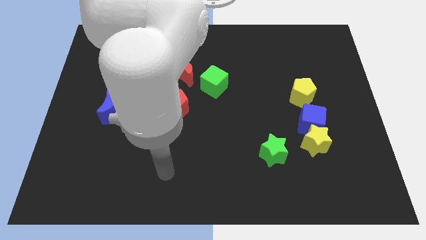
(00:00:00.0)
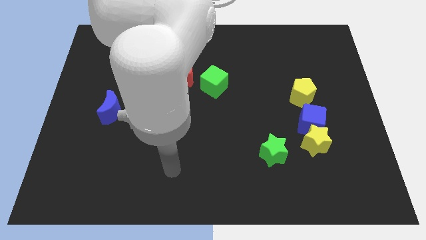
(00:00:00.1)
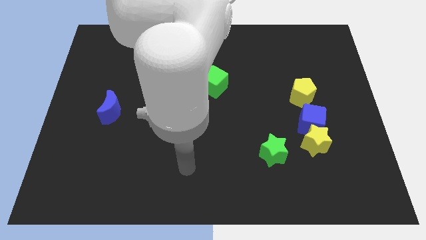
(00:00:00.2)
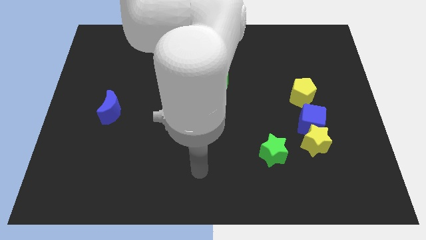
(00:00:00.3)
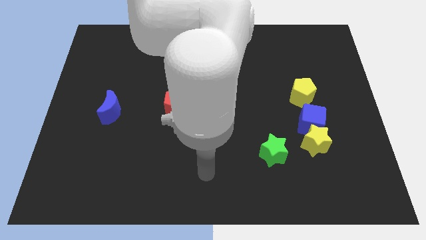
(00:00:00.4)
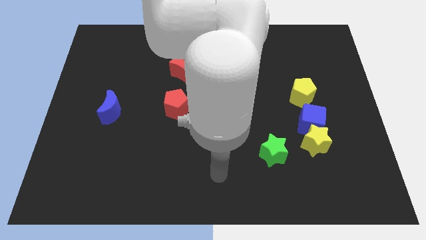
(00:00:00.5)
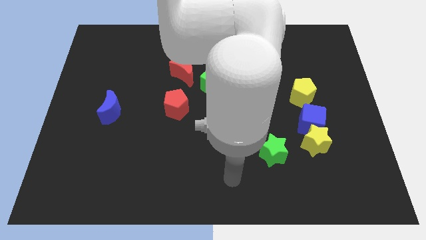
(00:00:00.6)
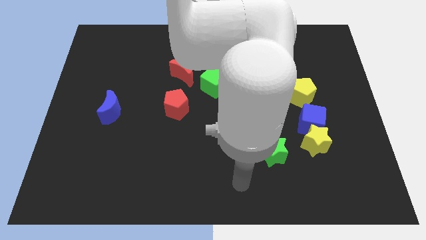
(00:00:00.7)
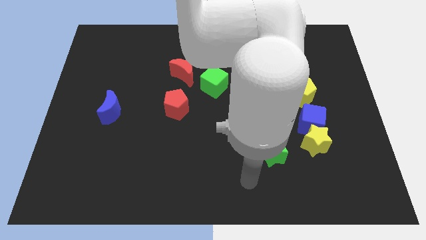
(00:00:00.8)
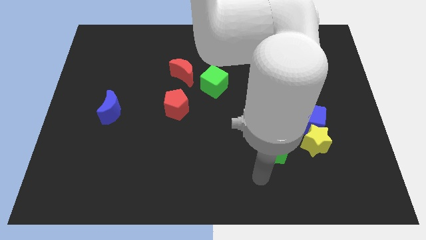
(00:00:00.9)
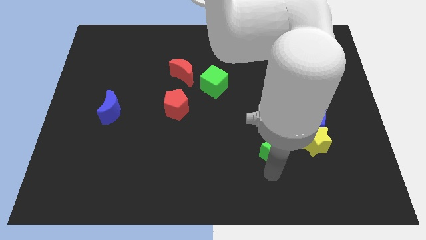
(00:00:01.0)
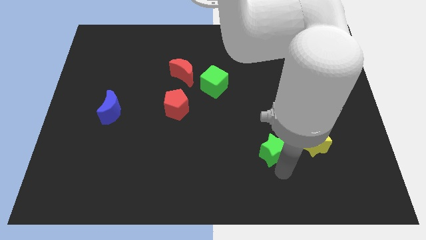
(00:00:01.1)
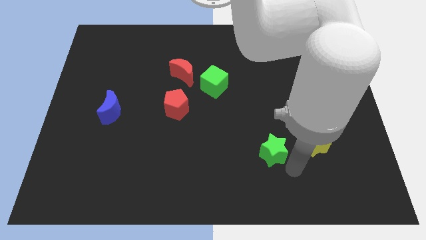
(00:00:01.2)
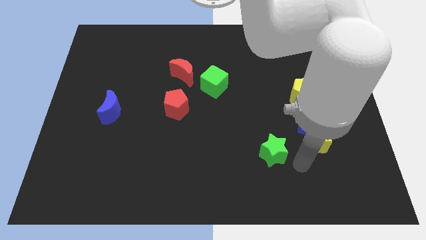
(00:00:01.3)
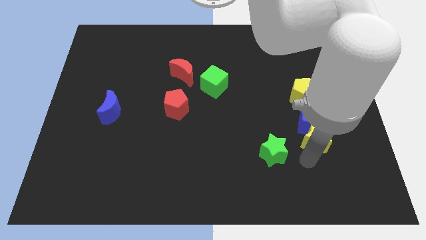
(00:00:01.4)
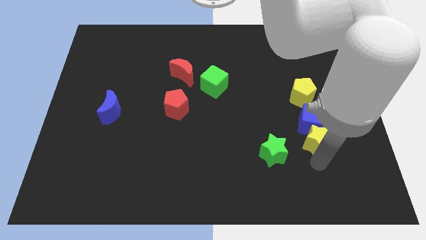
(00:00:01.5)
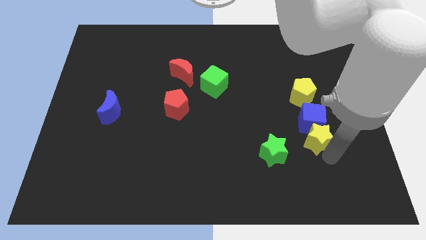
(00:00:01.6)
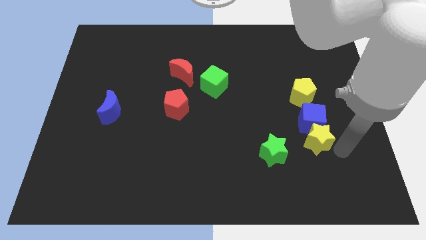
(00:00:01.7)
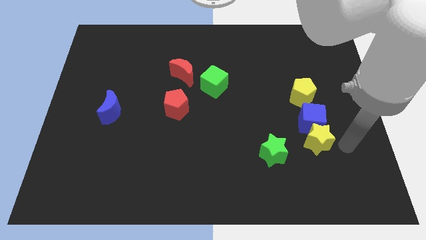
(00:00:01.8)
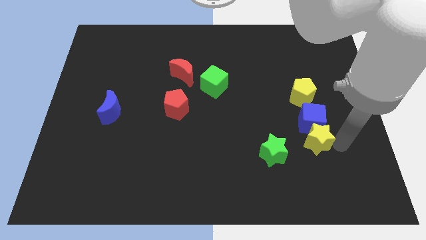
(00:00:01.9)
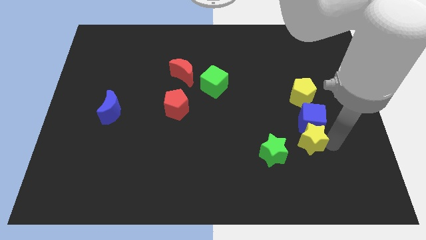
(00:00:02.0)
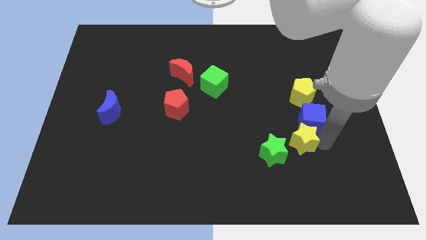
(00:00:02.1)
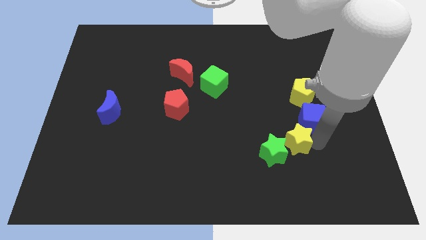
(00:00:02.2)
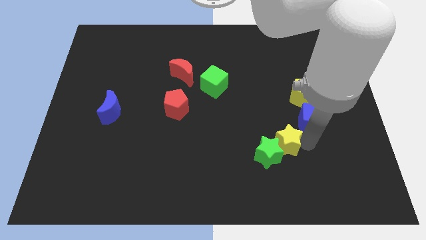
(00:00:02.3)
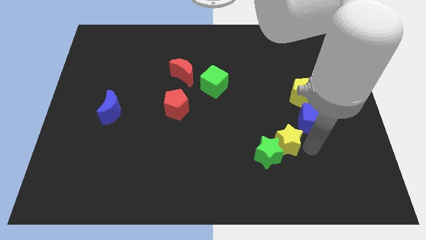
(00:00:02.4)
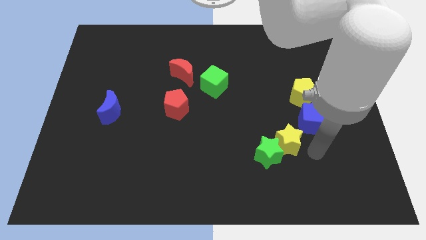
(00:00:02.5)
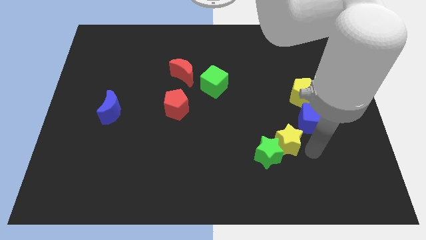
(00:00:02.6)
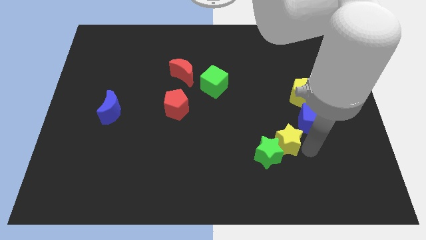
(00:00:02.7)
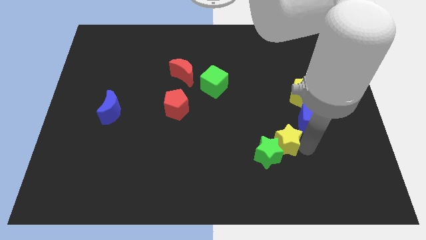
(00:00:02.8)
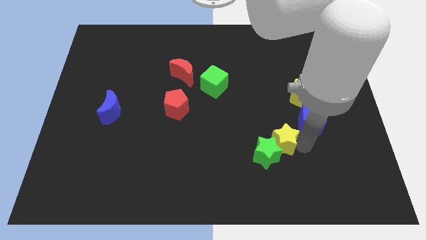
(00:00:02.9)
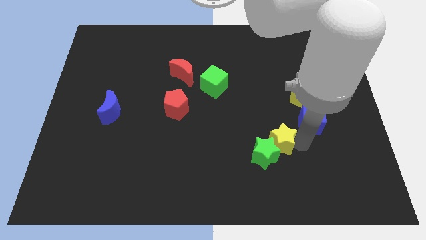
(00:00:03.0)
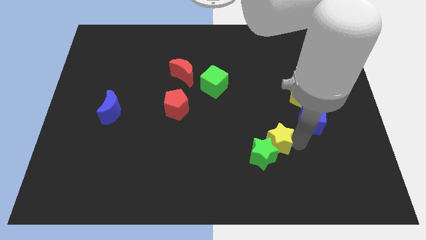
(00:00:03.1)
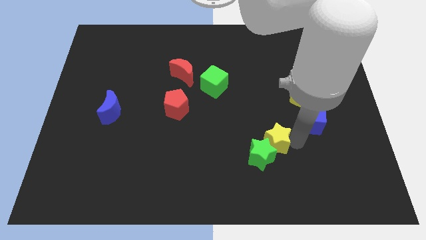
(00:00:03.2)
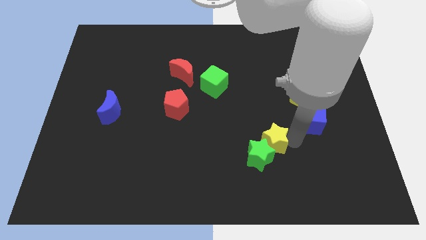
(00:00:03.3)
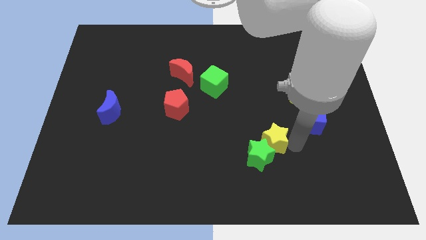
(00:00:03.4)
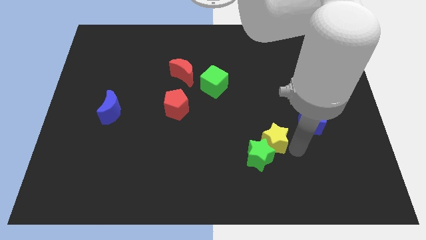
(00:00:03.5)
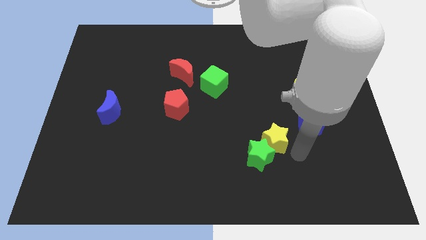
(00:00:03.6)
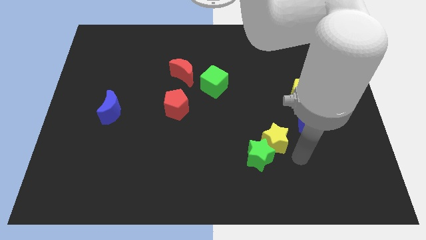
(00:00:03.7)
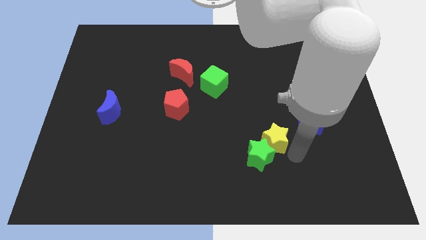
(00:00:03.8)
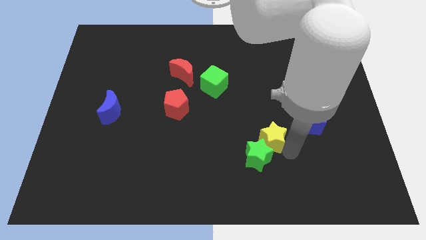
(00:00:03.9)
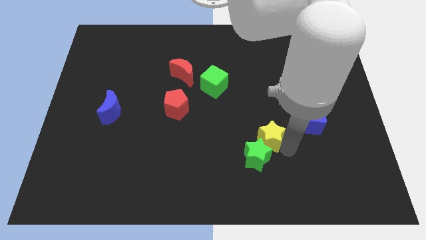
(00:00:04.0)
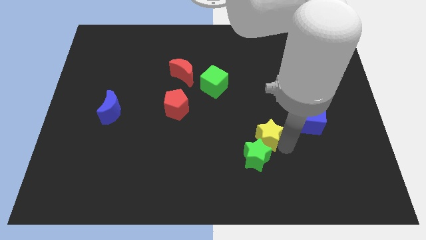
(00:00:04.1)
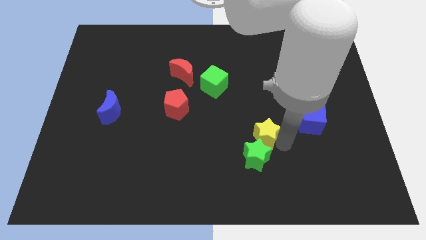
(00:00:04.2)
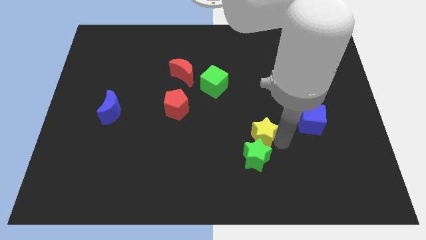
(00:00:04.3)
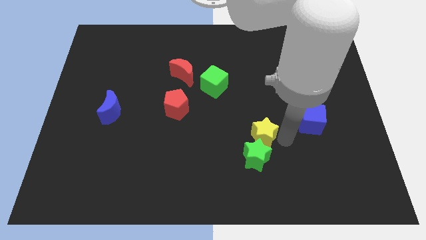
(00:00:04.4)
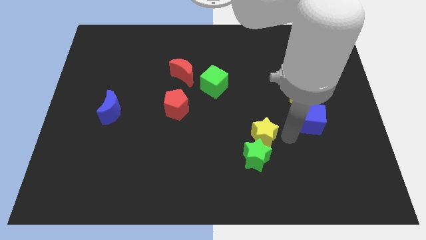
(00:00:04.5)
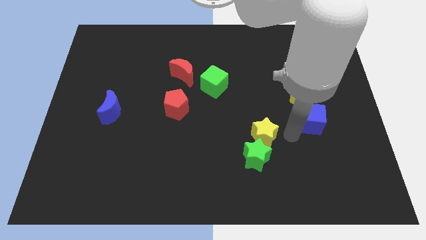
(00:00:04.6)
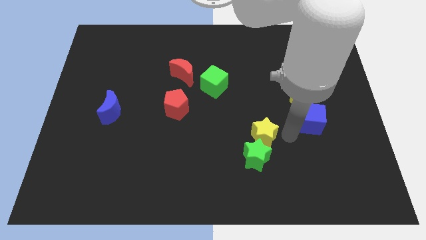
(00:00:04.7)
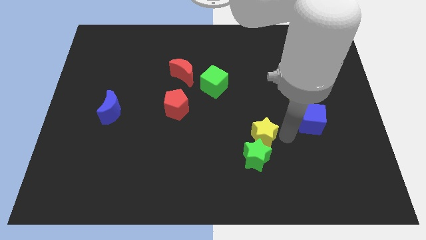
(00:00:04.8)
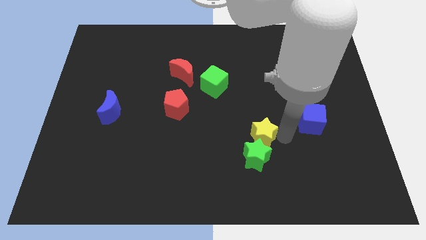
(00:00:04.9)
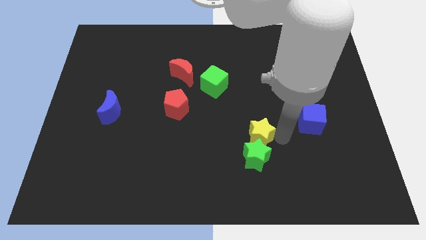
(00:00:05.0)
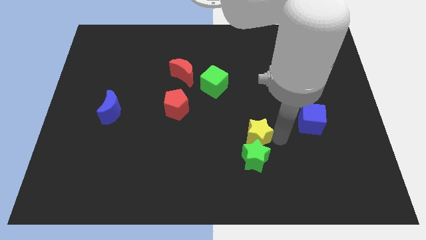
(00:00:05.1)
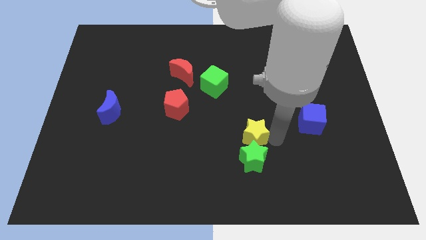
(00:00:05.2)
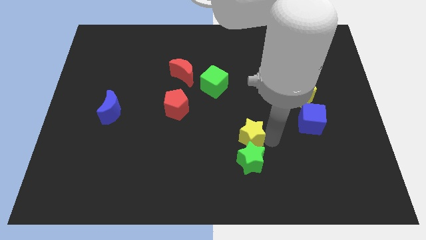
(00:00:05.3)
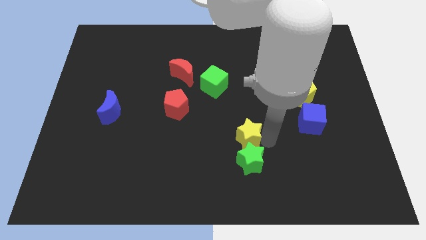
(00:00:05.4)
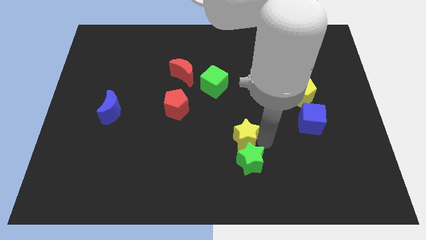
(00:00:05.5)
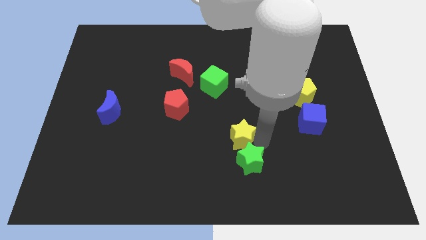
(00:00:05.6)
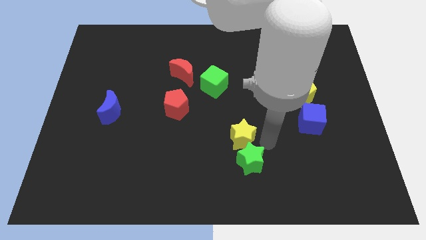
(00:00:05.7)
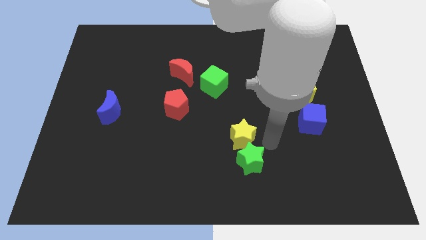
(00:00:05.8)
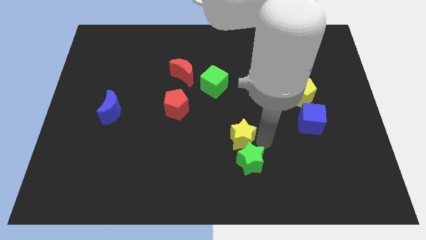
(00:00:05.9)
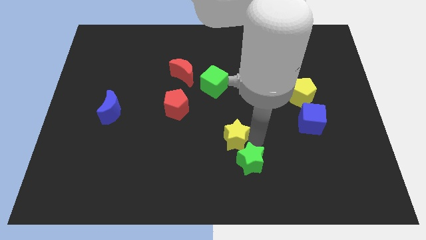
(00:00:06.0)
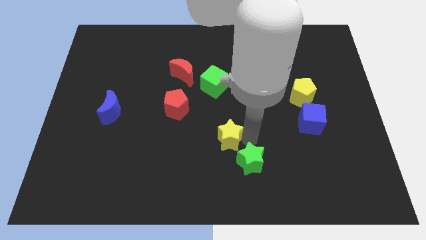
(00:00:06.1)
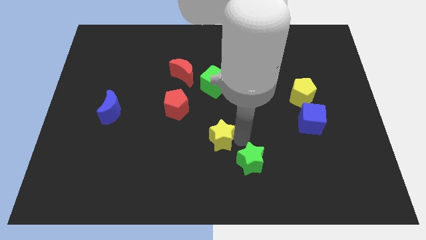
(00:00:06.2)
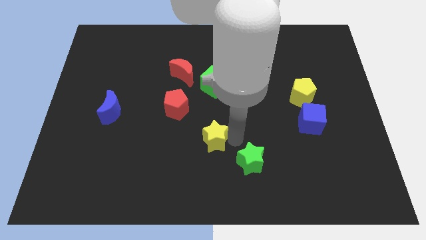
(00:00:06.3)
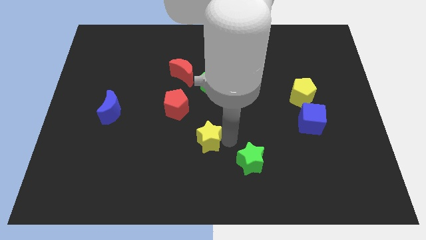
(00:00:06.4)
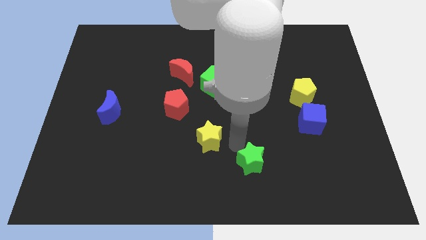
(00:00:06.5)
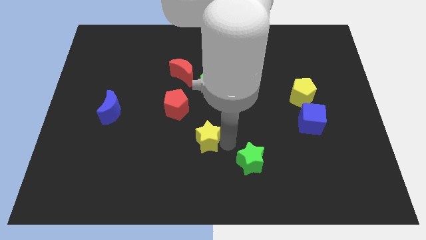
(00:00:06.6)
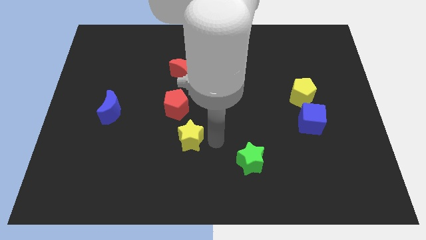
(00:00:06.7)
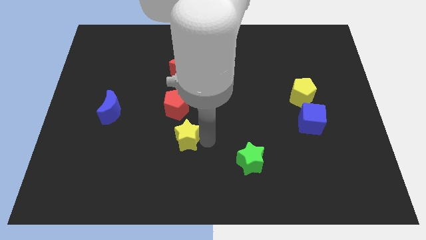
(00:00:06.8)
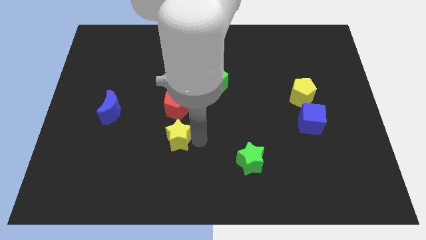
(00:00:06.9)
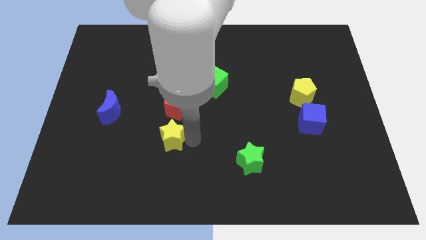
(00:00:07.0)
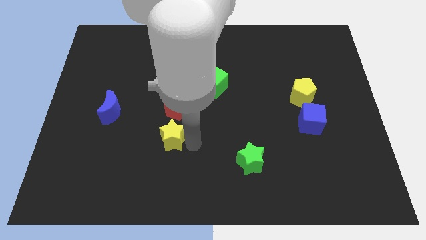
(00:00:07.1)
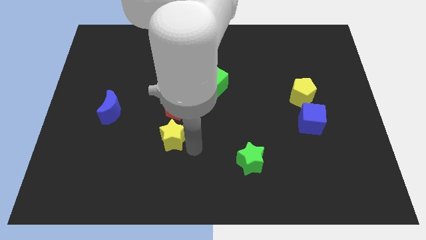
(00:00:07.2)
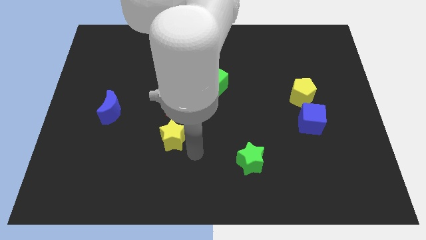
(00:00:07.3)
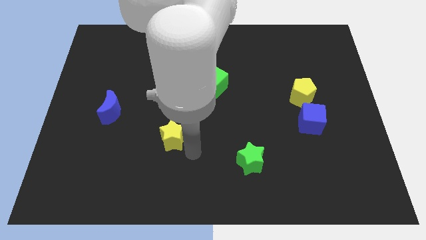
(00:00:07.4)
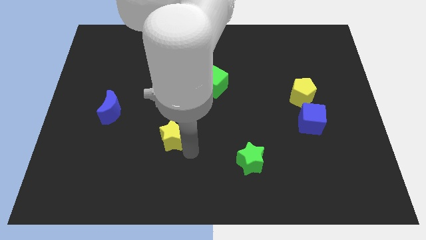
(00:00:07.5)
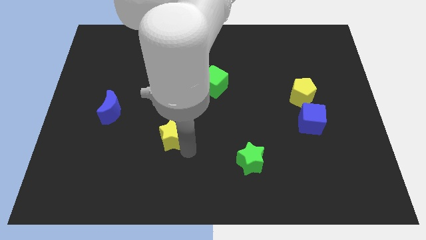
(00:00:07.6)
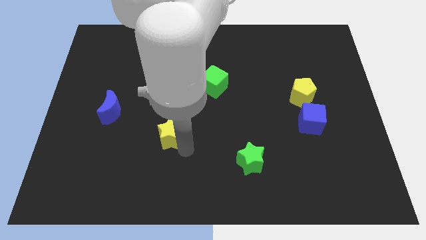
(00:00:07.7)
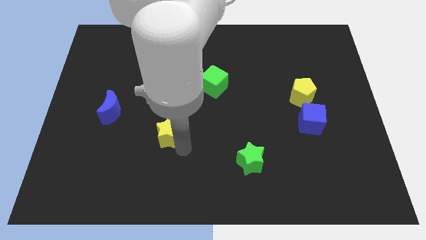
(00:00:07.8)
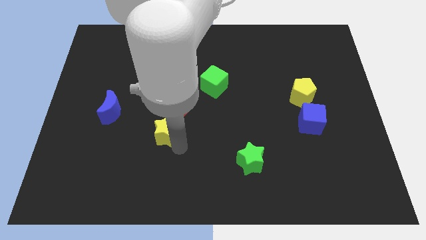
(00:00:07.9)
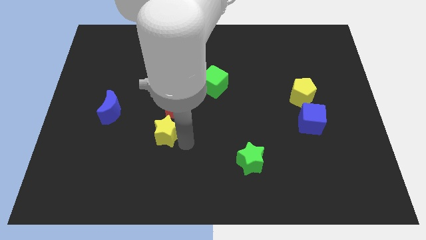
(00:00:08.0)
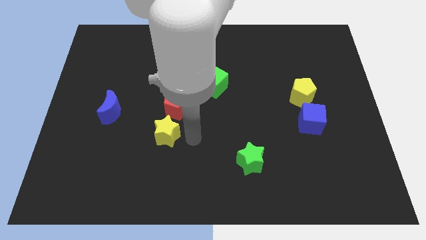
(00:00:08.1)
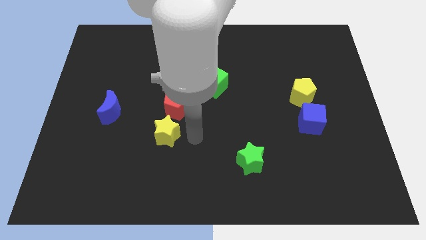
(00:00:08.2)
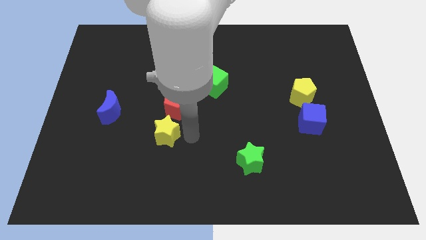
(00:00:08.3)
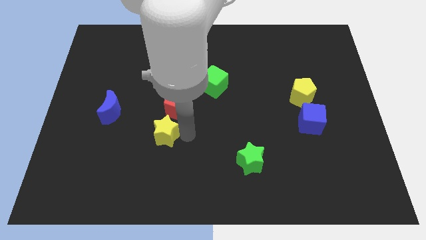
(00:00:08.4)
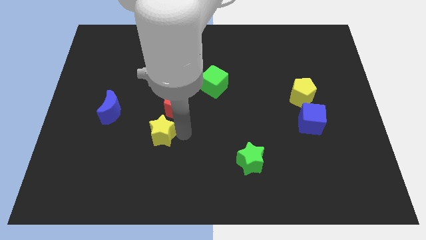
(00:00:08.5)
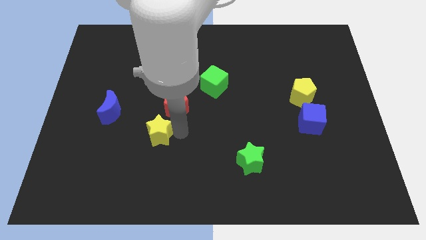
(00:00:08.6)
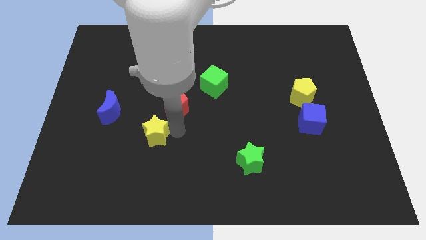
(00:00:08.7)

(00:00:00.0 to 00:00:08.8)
move the yellow star to the bottom right side of the blue moon
